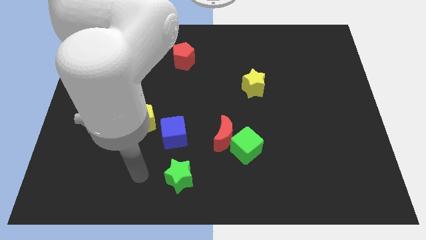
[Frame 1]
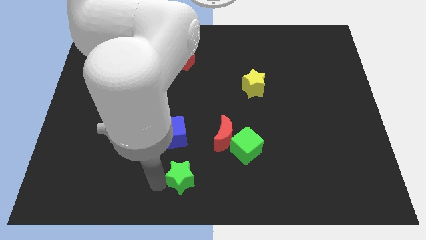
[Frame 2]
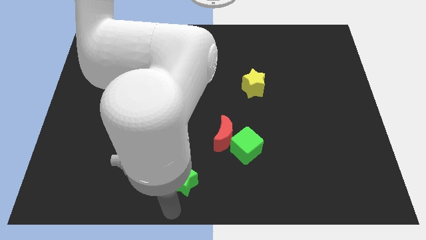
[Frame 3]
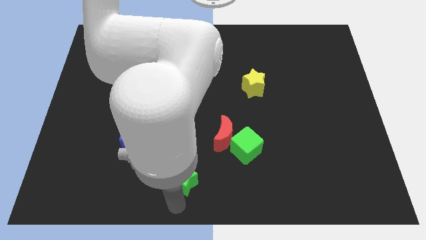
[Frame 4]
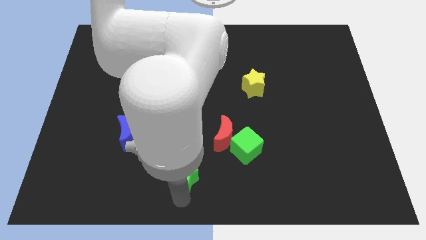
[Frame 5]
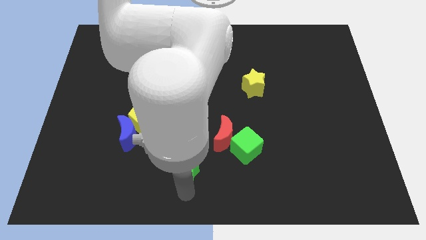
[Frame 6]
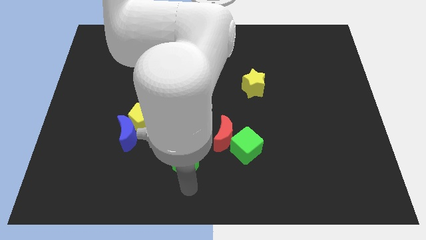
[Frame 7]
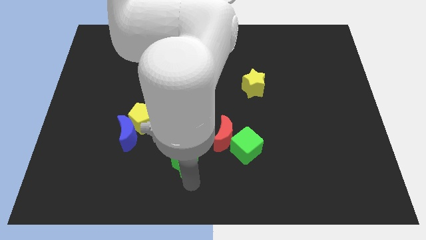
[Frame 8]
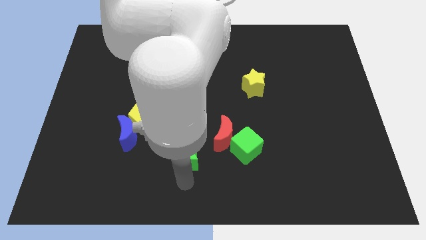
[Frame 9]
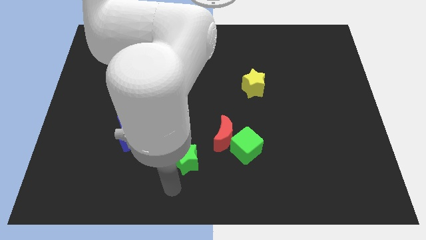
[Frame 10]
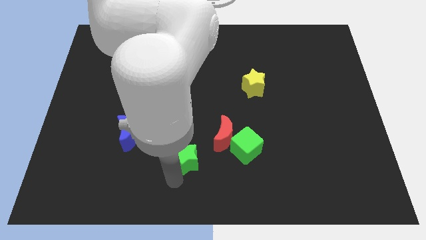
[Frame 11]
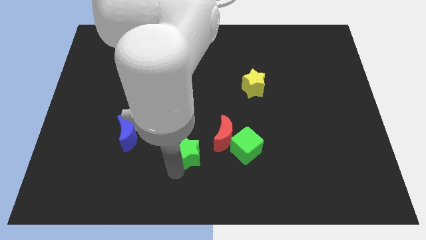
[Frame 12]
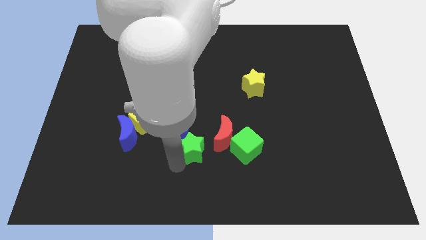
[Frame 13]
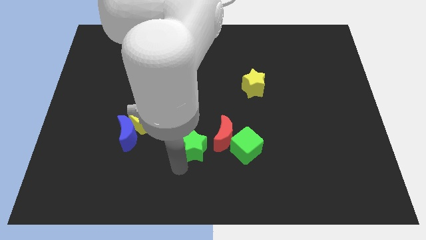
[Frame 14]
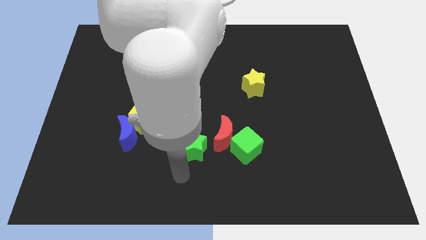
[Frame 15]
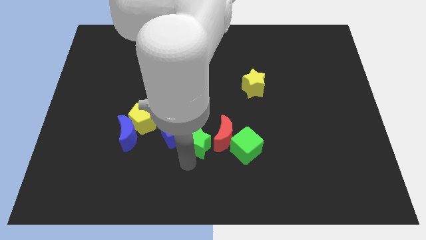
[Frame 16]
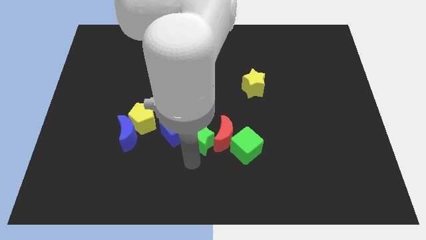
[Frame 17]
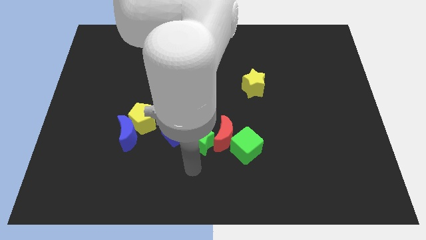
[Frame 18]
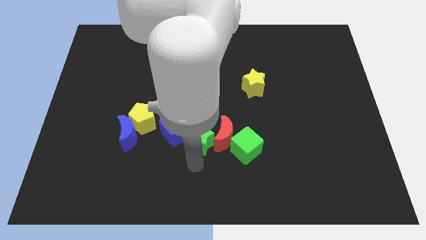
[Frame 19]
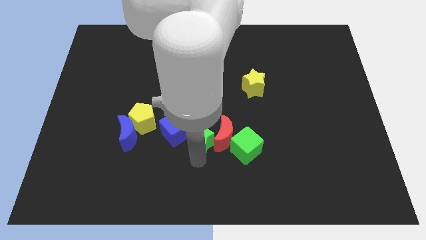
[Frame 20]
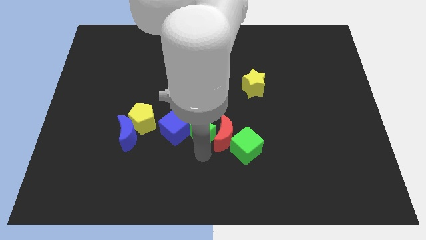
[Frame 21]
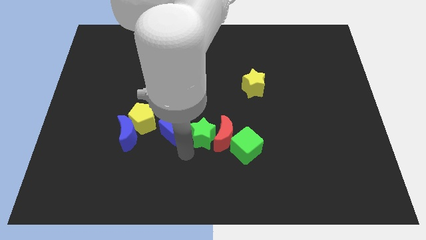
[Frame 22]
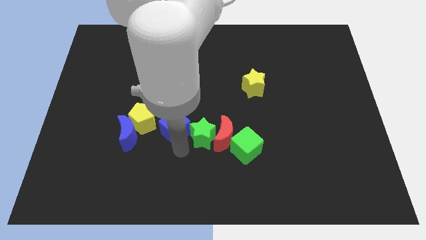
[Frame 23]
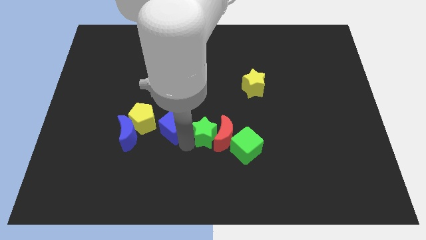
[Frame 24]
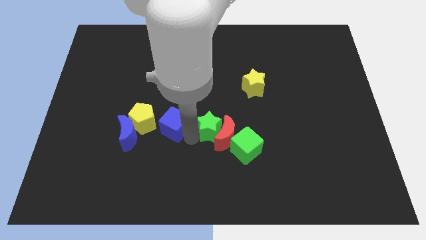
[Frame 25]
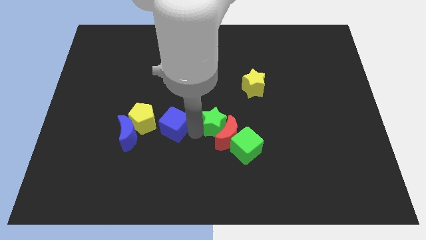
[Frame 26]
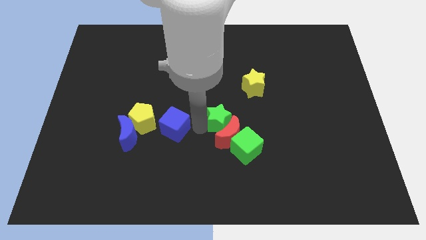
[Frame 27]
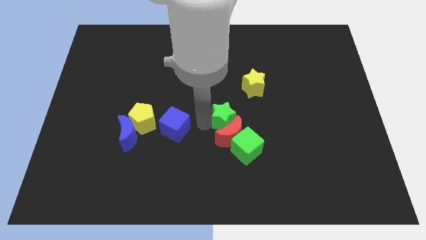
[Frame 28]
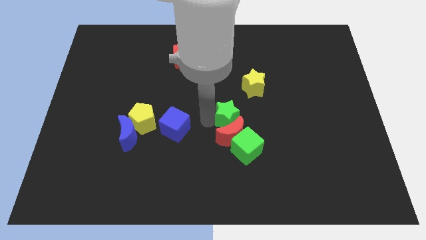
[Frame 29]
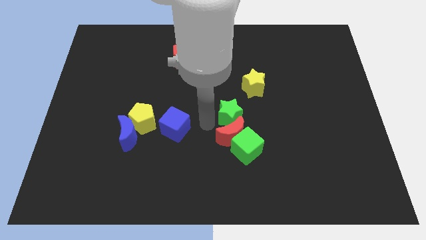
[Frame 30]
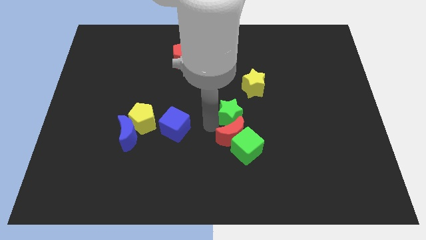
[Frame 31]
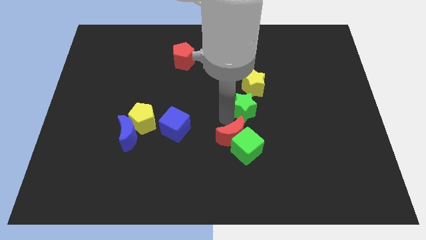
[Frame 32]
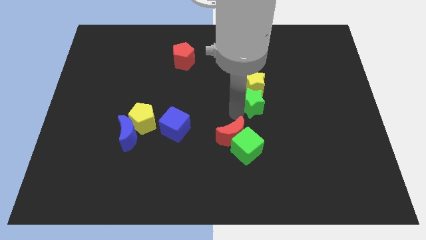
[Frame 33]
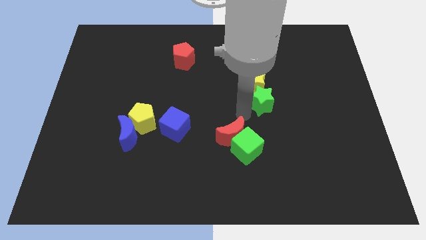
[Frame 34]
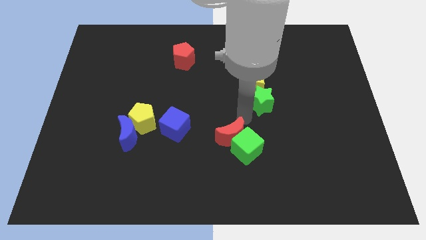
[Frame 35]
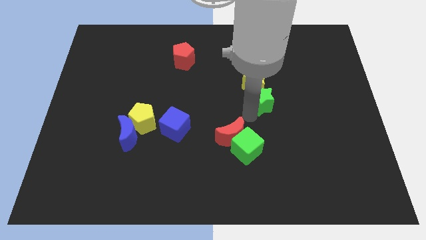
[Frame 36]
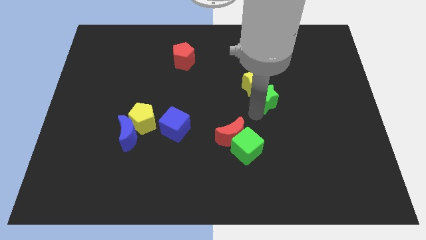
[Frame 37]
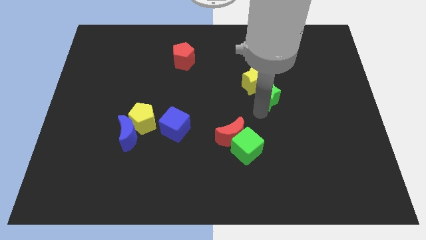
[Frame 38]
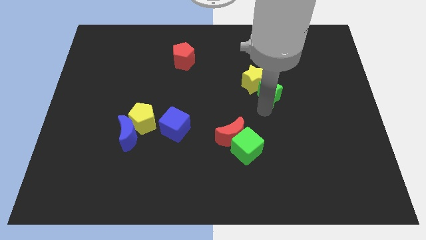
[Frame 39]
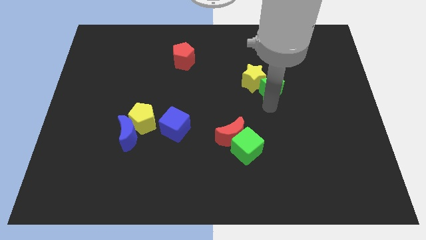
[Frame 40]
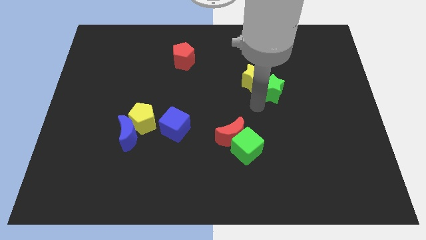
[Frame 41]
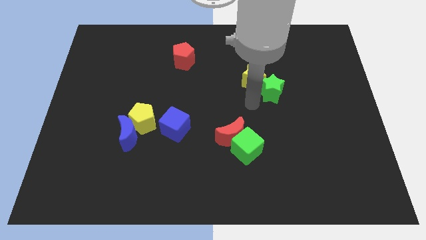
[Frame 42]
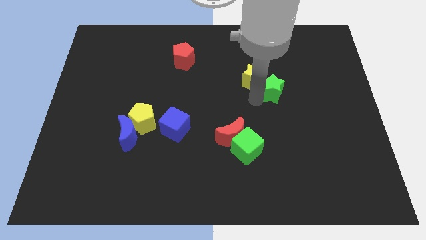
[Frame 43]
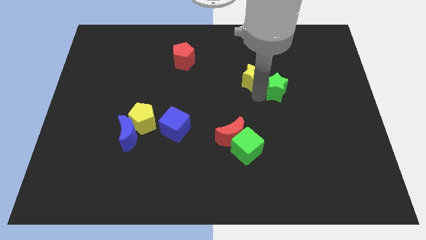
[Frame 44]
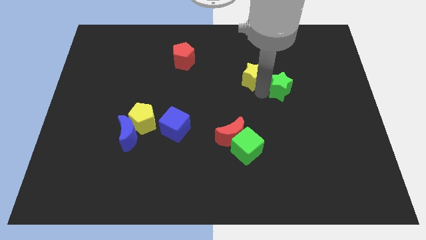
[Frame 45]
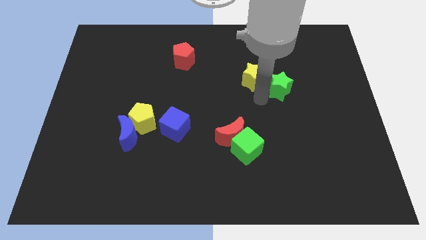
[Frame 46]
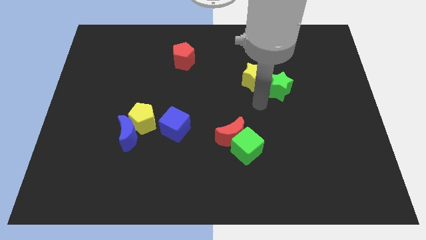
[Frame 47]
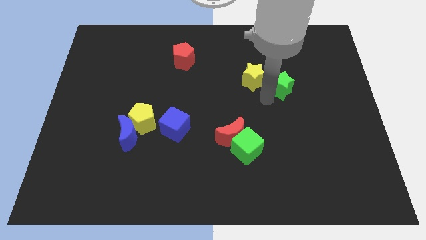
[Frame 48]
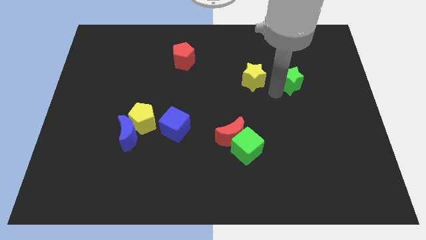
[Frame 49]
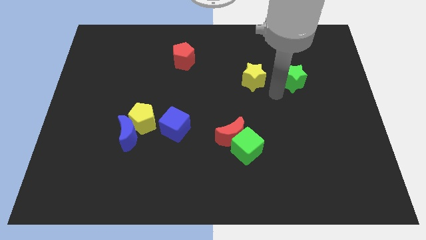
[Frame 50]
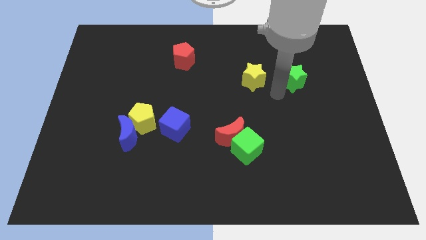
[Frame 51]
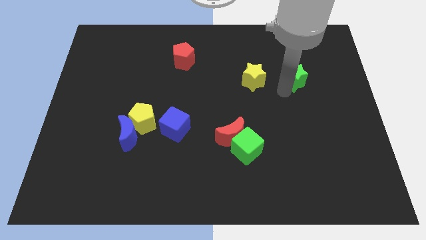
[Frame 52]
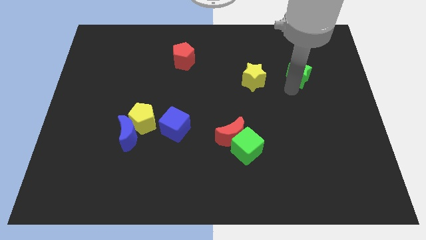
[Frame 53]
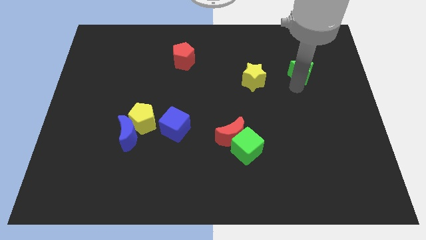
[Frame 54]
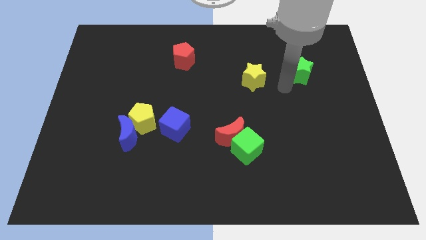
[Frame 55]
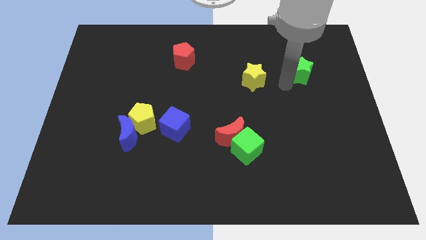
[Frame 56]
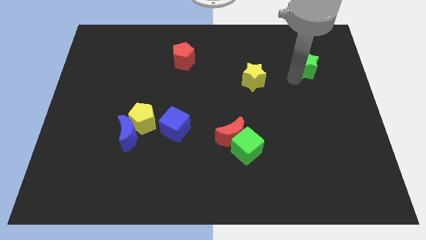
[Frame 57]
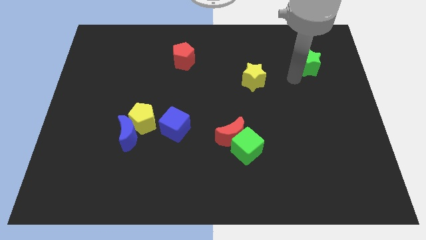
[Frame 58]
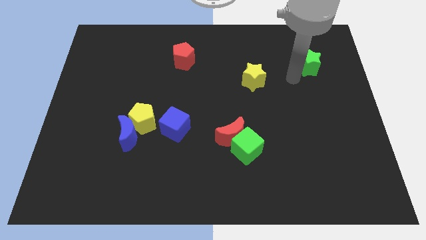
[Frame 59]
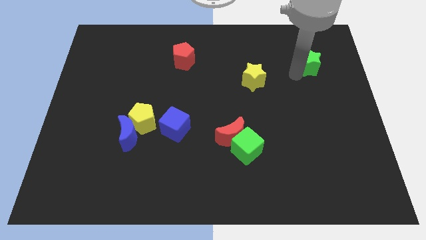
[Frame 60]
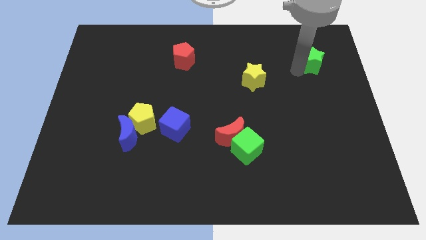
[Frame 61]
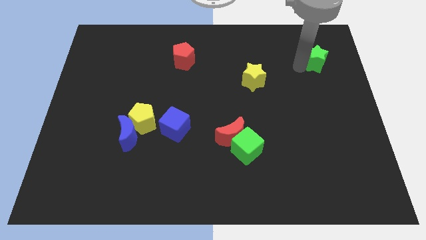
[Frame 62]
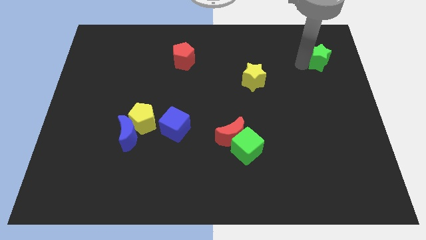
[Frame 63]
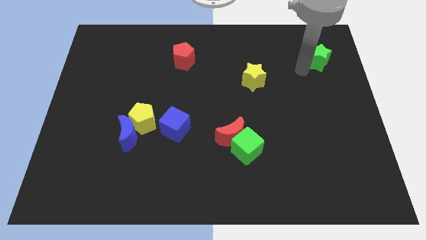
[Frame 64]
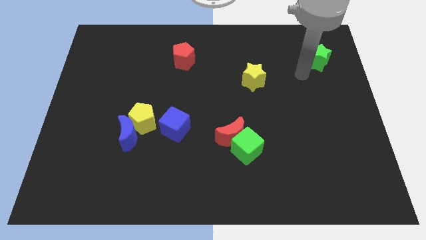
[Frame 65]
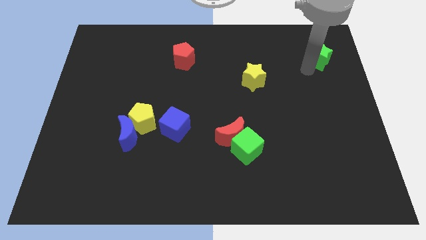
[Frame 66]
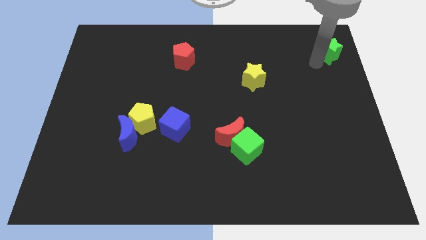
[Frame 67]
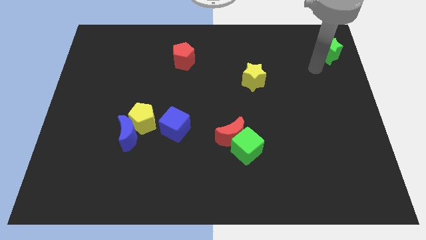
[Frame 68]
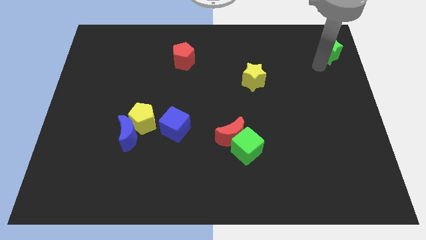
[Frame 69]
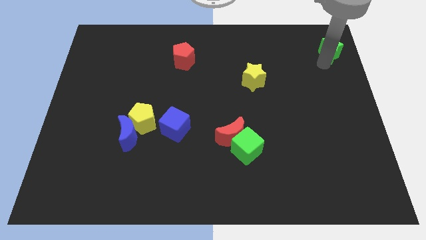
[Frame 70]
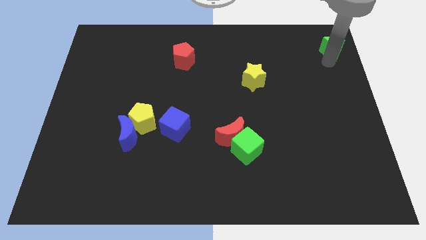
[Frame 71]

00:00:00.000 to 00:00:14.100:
move the green star to the top right corner
